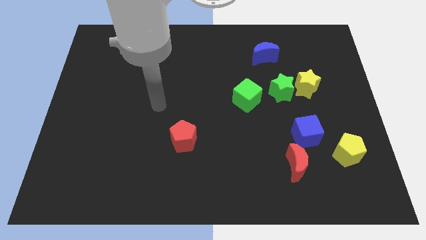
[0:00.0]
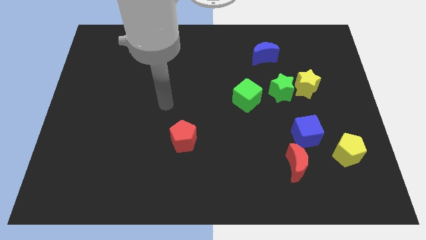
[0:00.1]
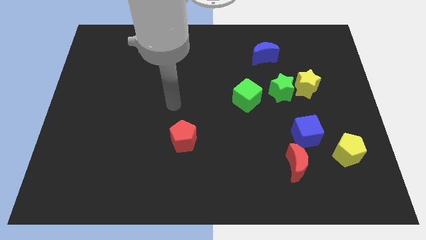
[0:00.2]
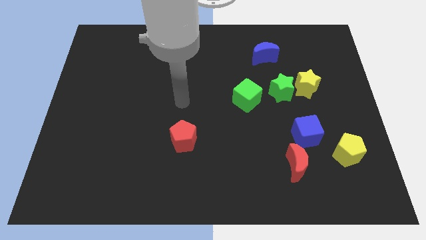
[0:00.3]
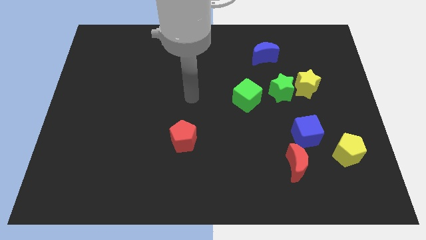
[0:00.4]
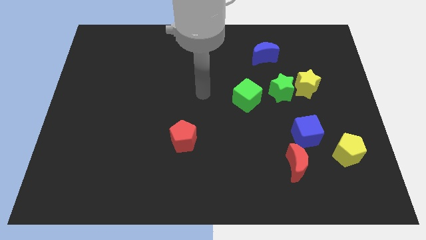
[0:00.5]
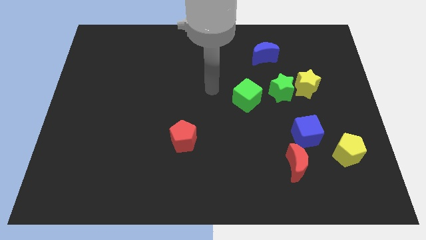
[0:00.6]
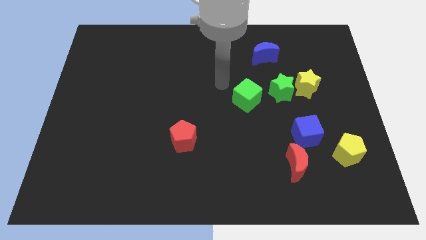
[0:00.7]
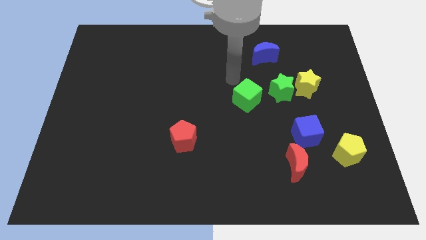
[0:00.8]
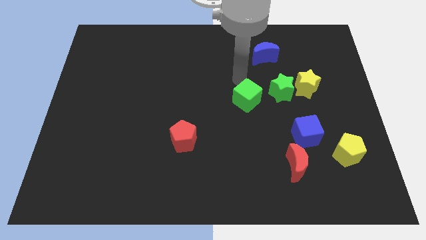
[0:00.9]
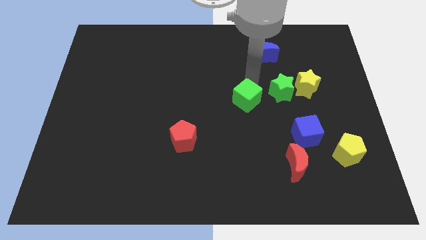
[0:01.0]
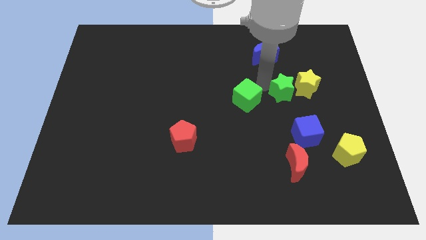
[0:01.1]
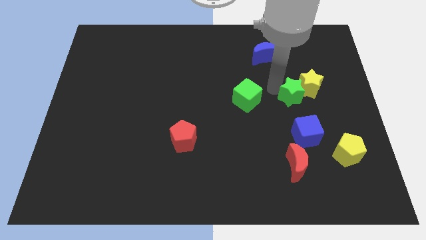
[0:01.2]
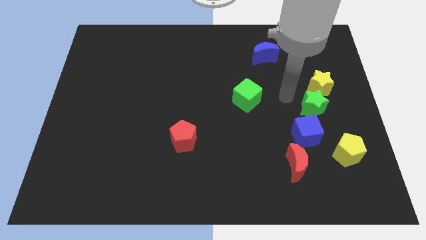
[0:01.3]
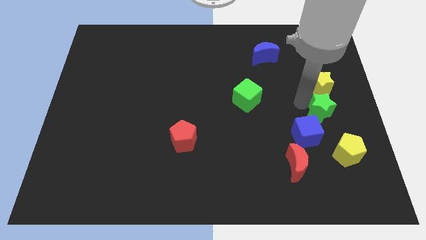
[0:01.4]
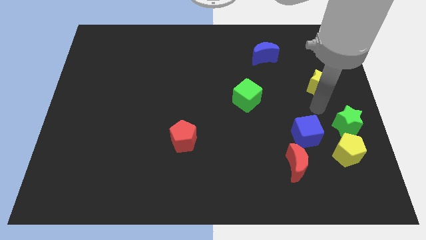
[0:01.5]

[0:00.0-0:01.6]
pull the yellow star apart from the green star

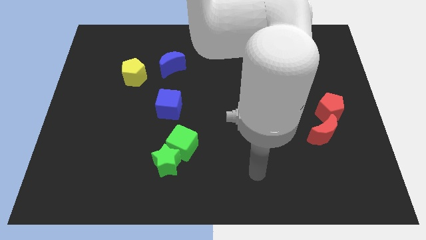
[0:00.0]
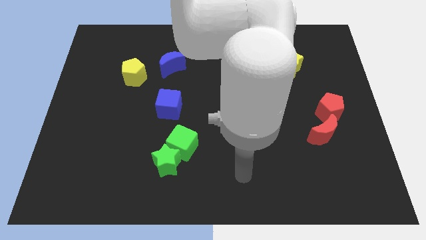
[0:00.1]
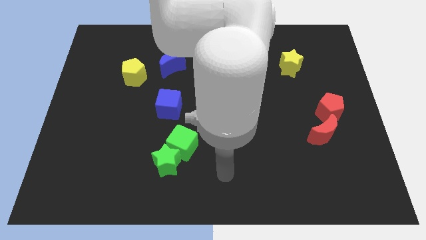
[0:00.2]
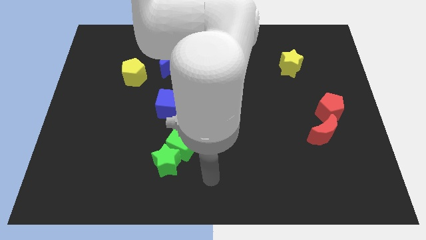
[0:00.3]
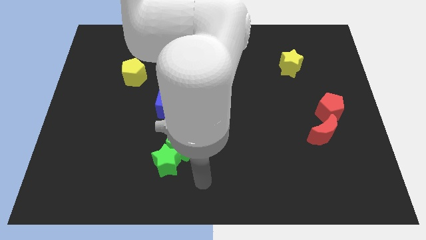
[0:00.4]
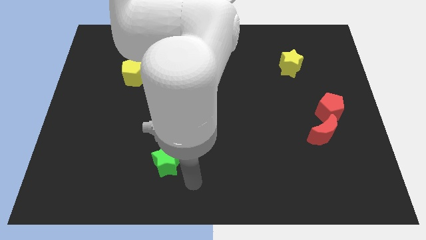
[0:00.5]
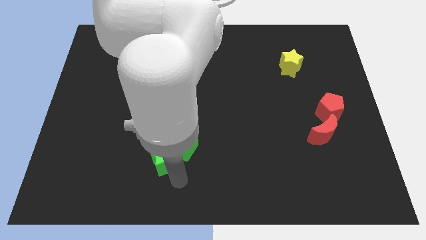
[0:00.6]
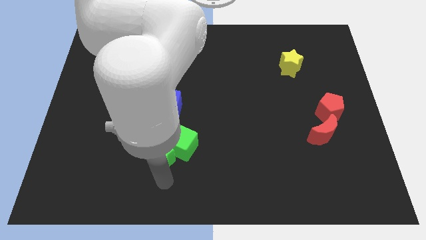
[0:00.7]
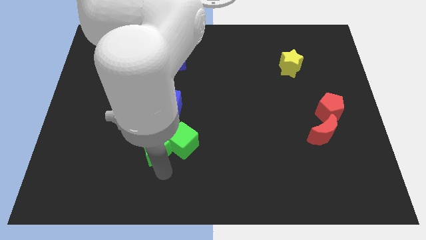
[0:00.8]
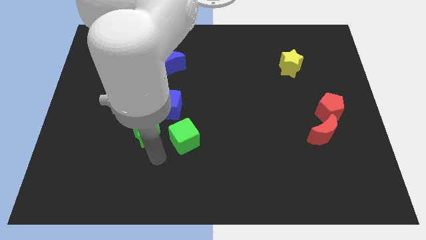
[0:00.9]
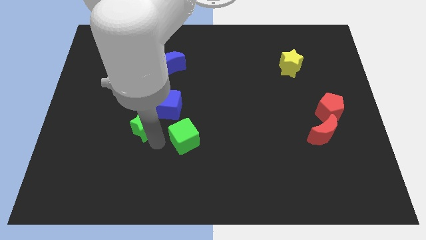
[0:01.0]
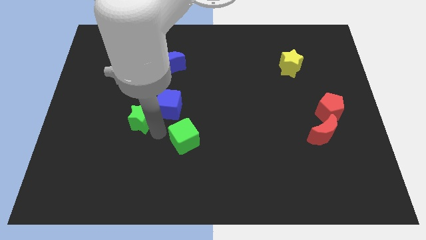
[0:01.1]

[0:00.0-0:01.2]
pull the green cube apart from the green star

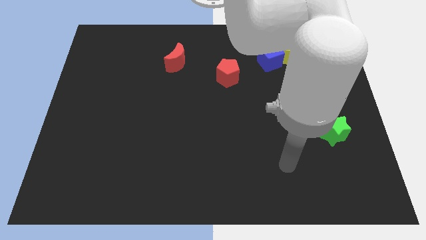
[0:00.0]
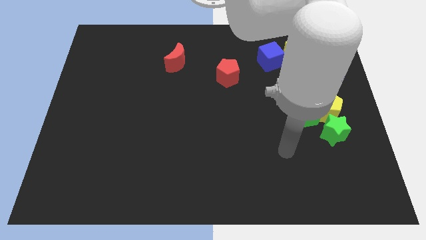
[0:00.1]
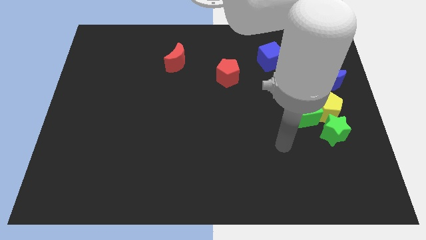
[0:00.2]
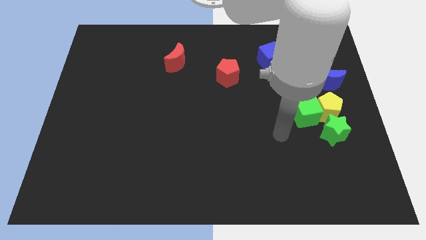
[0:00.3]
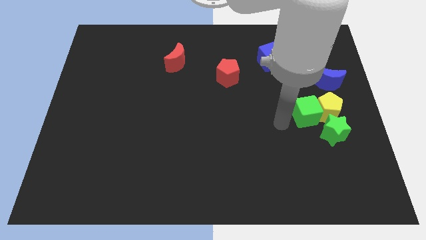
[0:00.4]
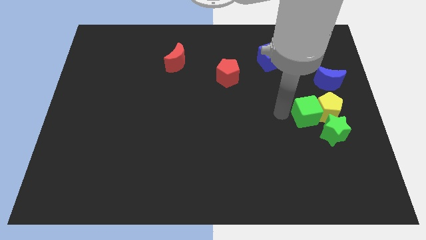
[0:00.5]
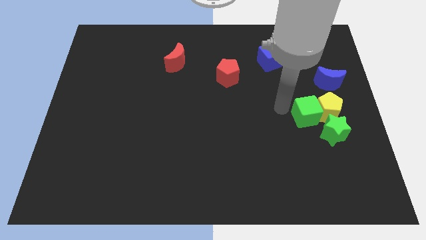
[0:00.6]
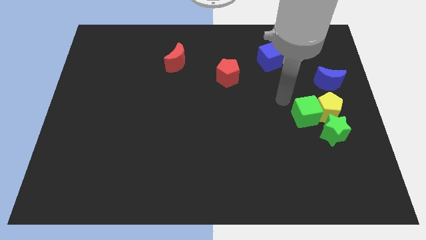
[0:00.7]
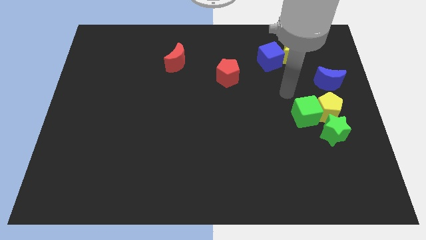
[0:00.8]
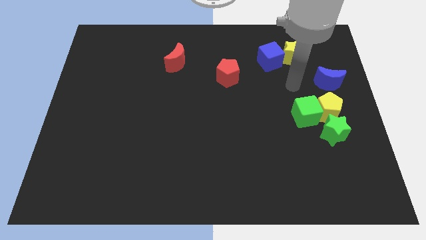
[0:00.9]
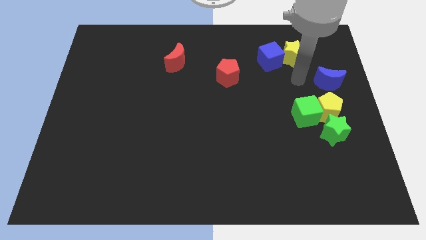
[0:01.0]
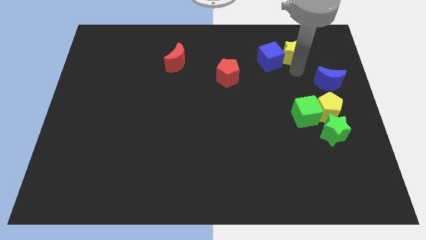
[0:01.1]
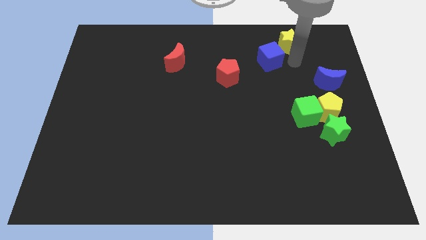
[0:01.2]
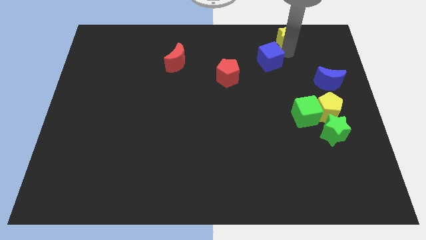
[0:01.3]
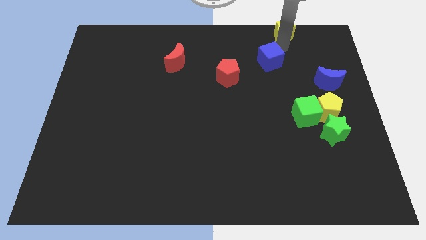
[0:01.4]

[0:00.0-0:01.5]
separate the blue cube from the yellow star

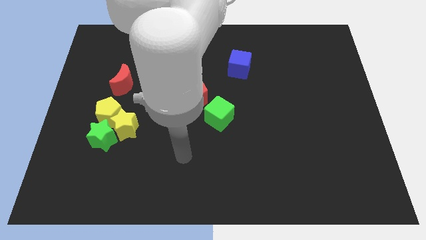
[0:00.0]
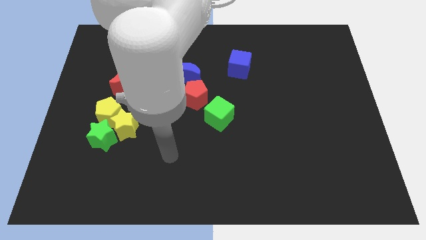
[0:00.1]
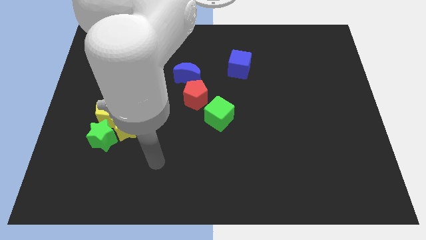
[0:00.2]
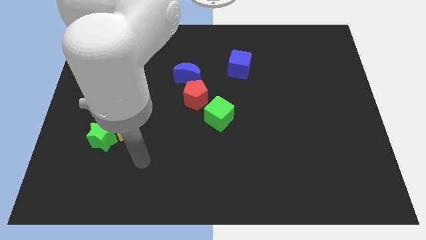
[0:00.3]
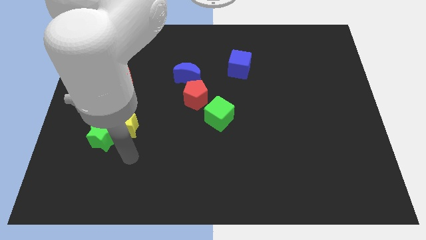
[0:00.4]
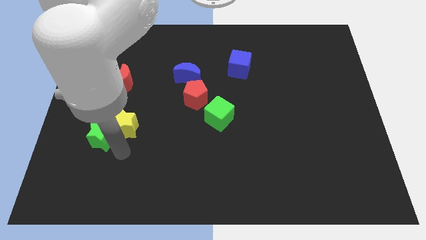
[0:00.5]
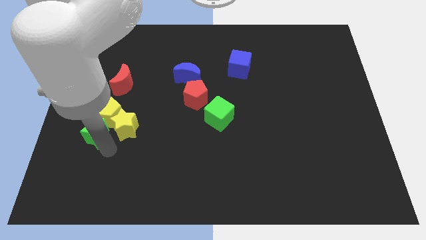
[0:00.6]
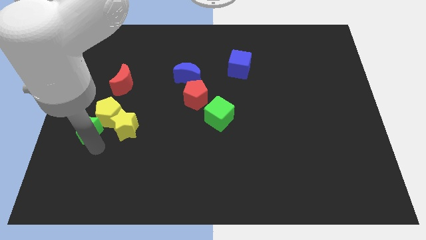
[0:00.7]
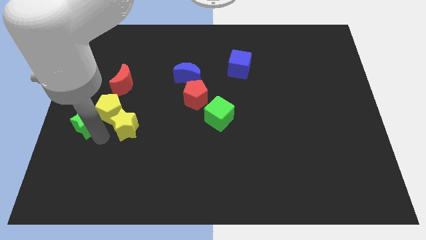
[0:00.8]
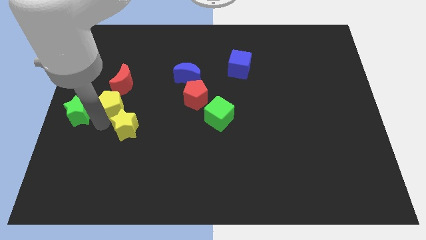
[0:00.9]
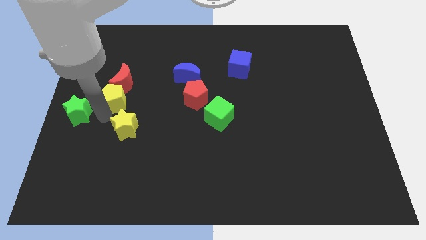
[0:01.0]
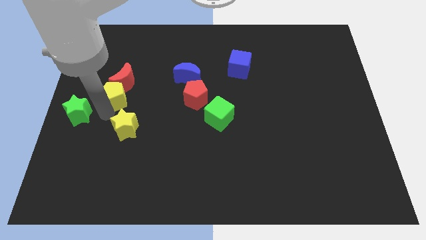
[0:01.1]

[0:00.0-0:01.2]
move the yellow star away from the green star and yellow pentagon

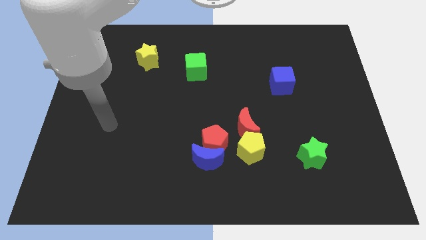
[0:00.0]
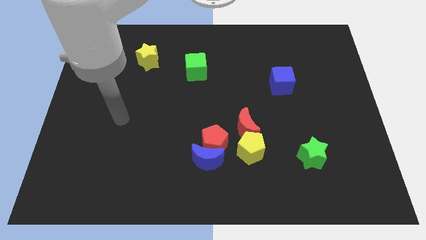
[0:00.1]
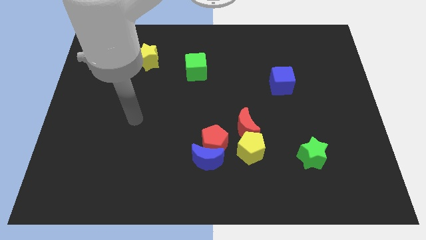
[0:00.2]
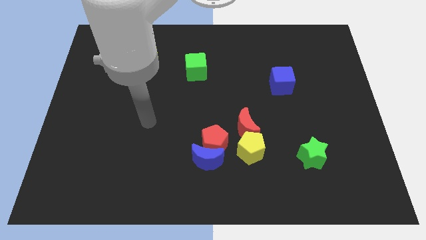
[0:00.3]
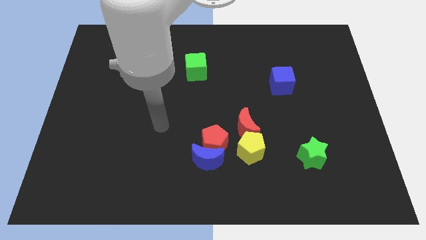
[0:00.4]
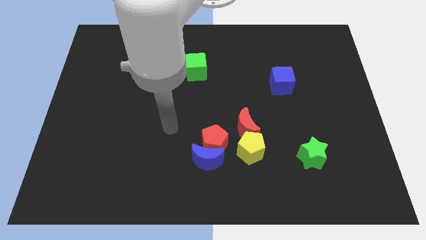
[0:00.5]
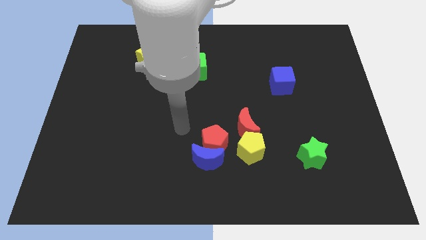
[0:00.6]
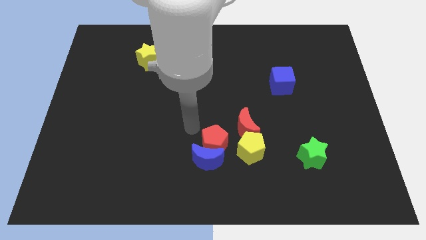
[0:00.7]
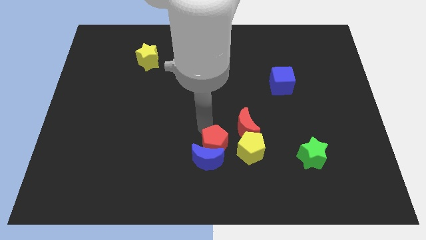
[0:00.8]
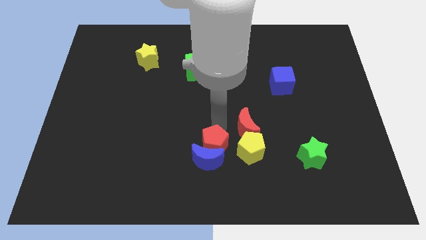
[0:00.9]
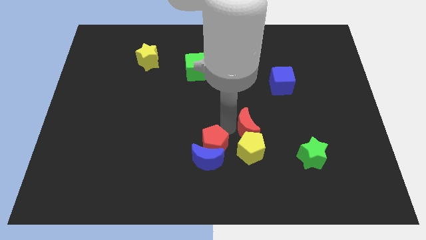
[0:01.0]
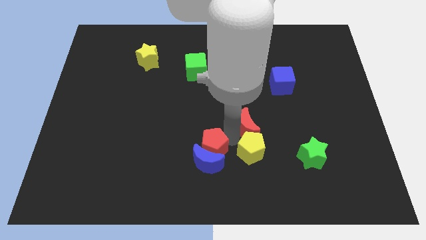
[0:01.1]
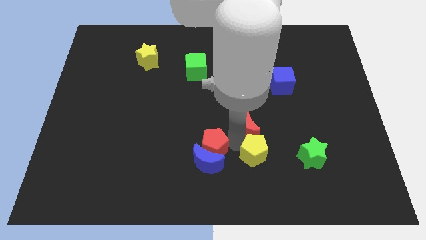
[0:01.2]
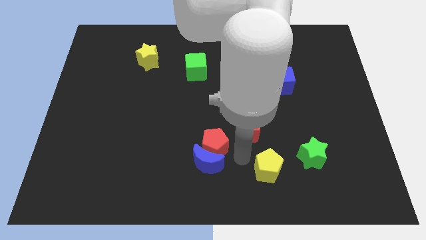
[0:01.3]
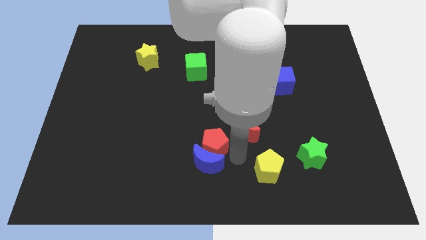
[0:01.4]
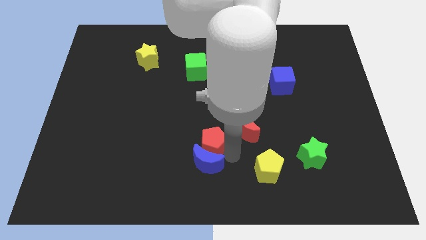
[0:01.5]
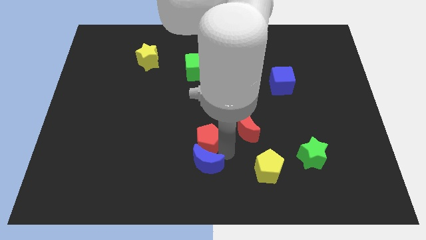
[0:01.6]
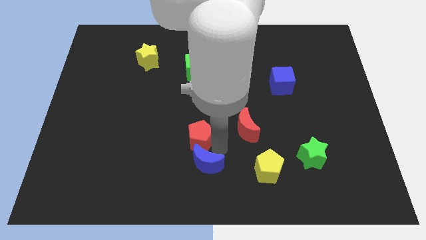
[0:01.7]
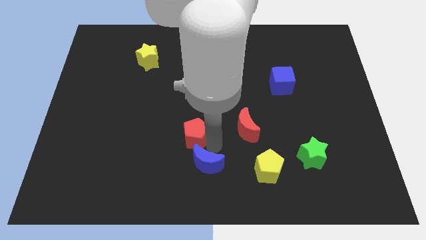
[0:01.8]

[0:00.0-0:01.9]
pull the red pentagon apart from the blue moon, yellow pentagon, and red moon

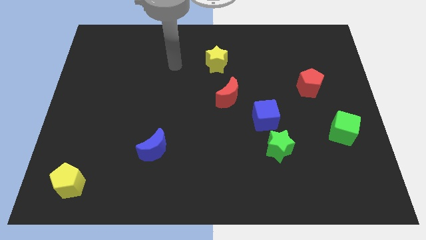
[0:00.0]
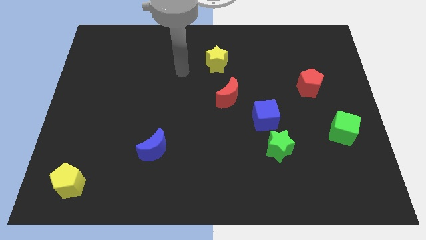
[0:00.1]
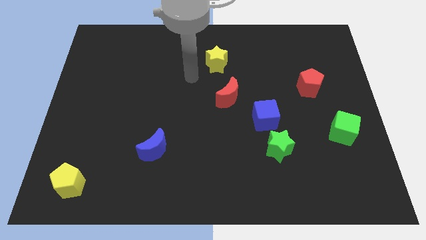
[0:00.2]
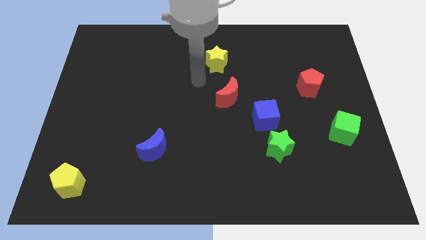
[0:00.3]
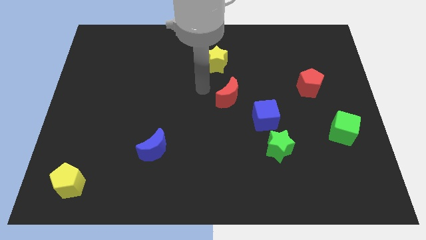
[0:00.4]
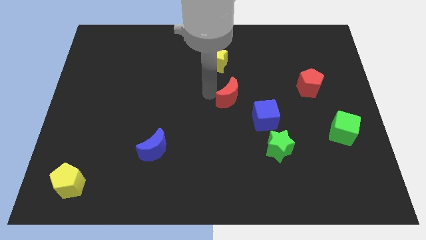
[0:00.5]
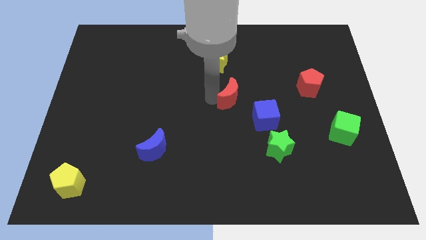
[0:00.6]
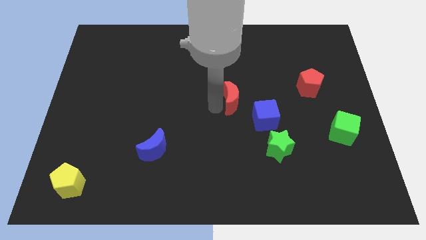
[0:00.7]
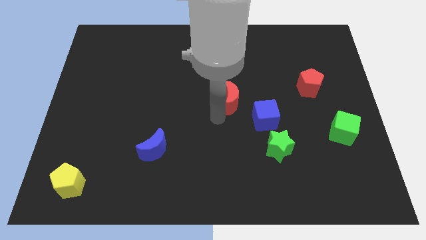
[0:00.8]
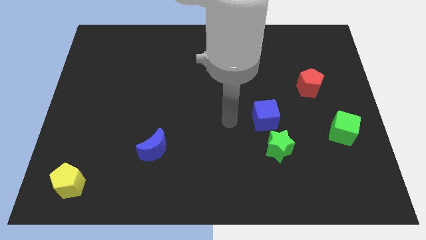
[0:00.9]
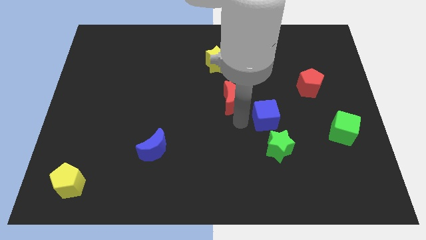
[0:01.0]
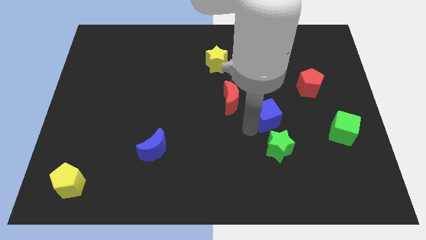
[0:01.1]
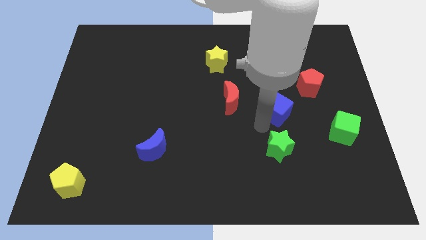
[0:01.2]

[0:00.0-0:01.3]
pull the green star apart from the blue cube

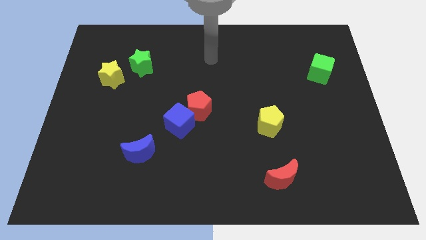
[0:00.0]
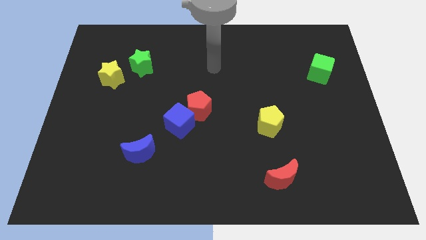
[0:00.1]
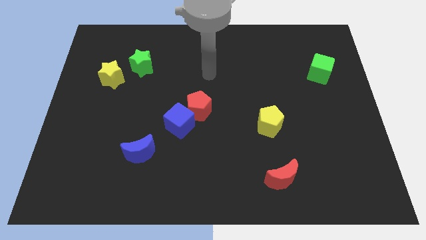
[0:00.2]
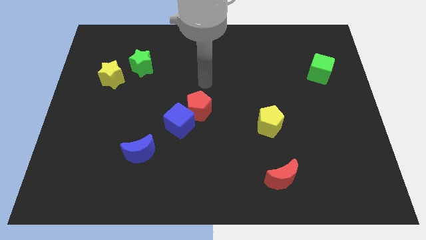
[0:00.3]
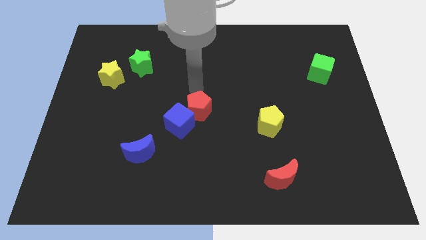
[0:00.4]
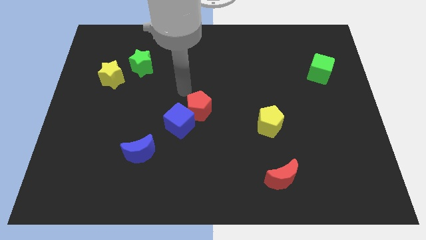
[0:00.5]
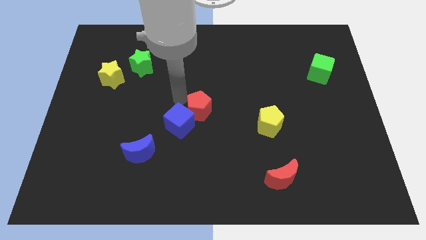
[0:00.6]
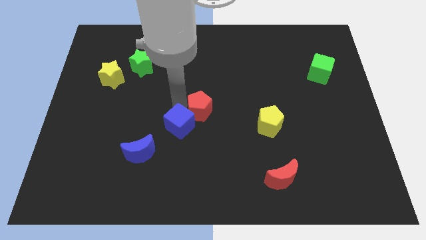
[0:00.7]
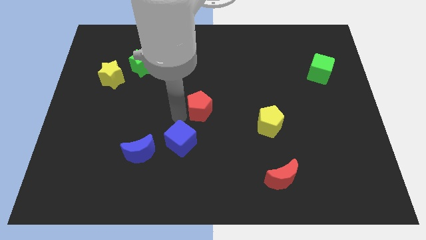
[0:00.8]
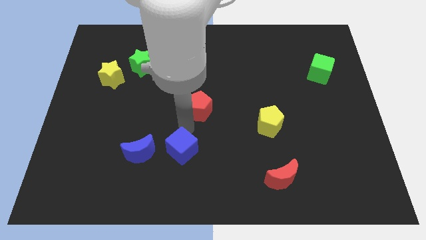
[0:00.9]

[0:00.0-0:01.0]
pull the red pentagon apart from the blue cube
